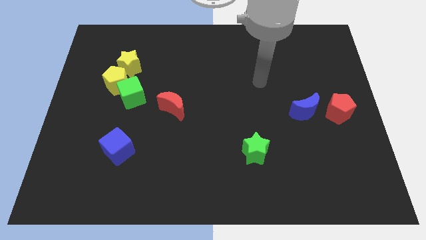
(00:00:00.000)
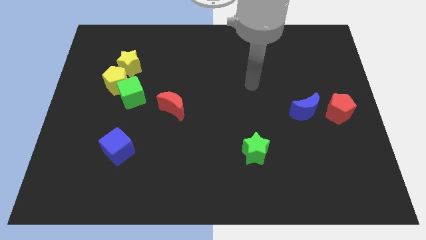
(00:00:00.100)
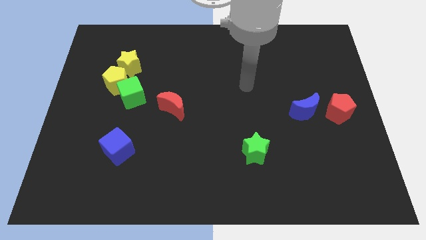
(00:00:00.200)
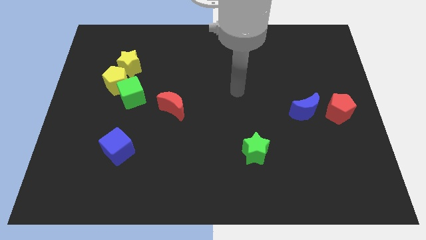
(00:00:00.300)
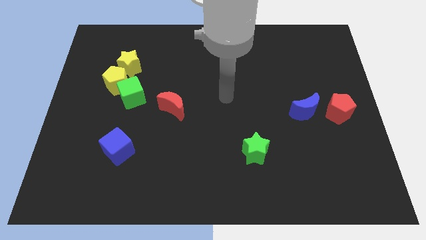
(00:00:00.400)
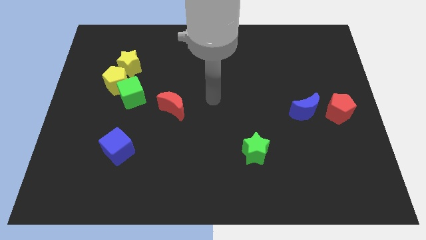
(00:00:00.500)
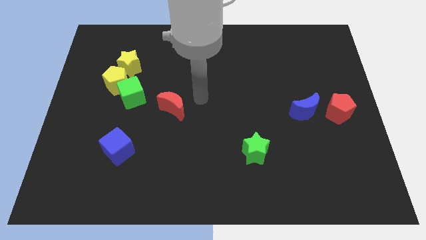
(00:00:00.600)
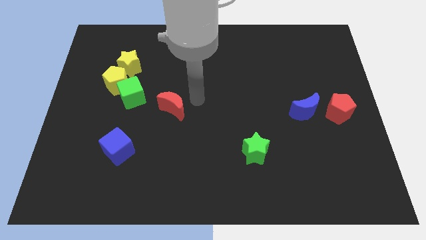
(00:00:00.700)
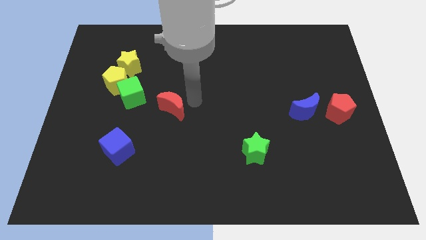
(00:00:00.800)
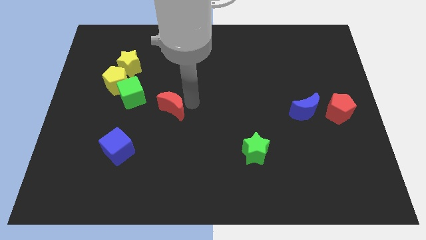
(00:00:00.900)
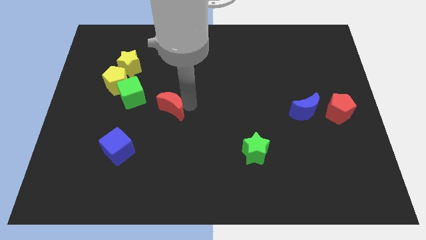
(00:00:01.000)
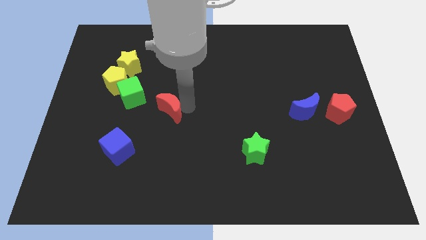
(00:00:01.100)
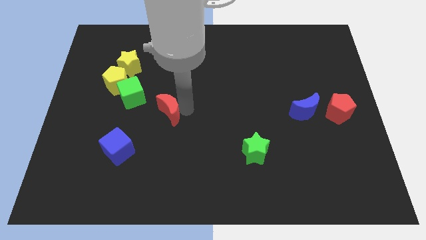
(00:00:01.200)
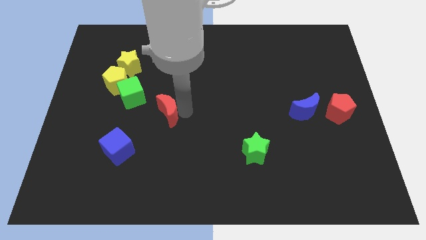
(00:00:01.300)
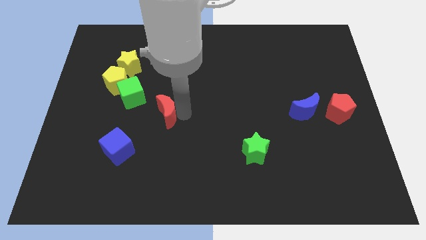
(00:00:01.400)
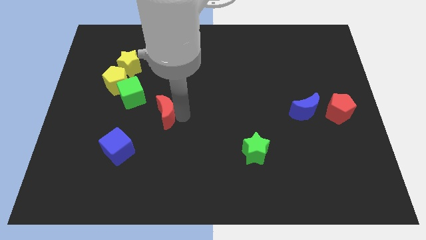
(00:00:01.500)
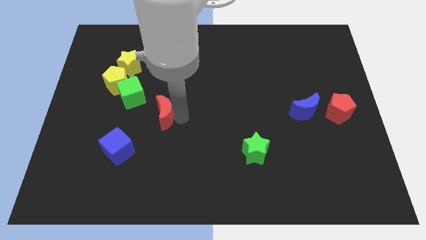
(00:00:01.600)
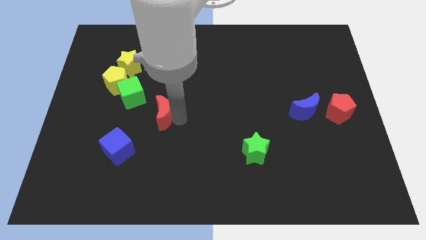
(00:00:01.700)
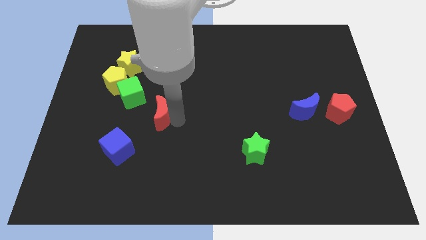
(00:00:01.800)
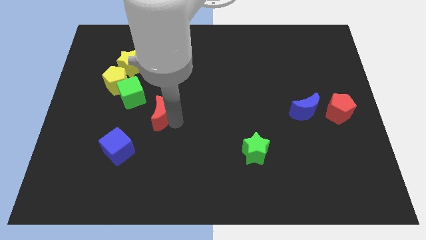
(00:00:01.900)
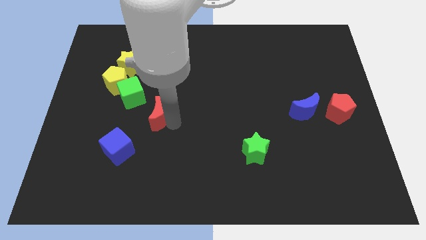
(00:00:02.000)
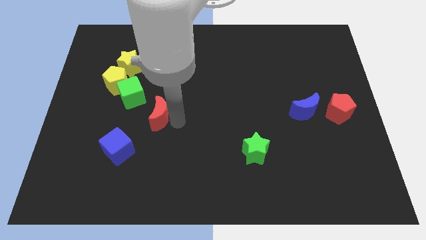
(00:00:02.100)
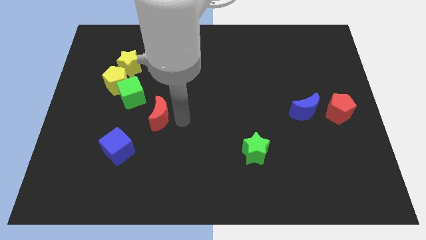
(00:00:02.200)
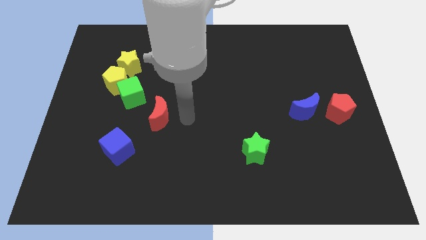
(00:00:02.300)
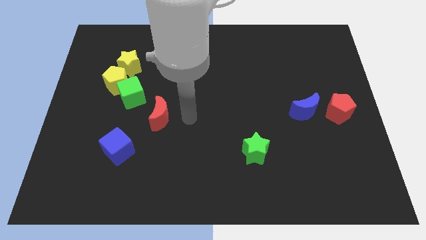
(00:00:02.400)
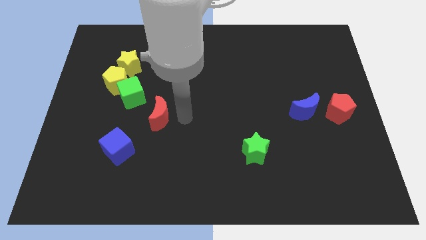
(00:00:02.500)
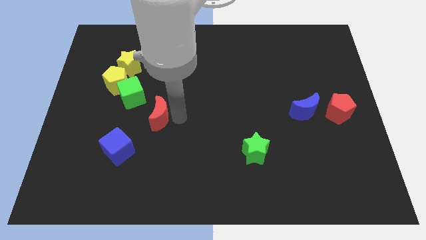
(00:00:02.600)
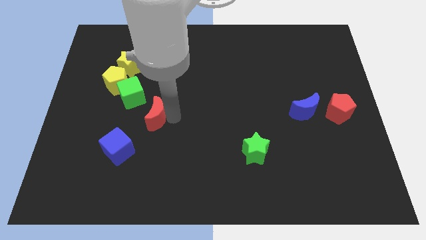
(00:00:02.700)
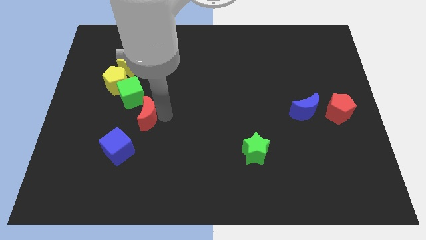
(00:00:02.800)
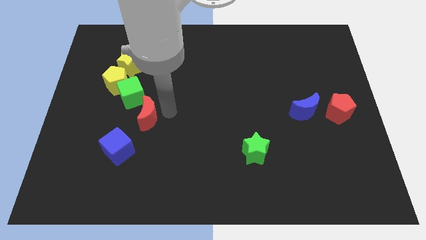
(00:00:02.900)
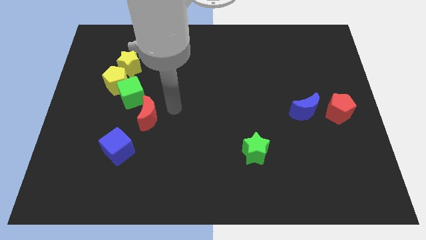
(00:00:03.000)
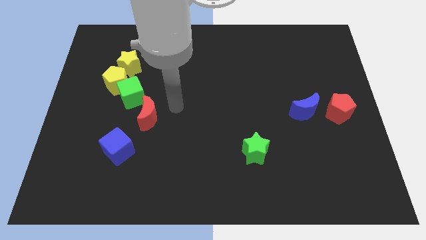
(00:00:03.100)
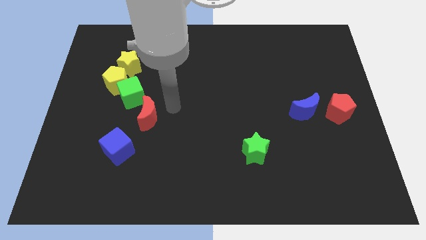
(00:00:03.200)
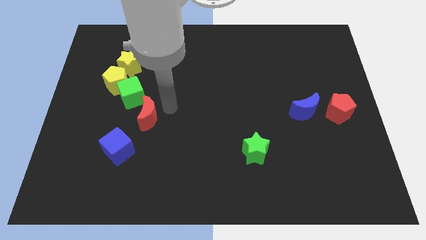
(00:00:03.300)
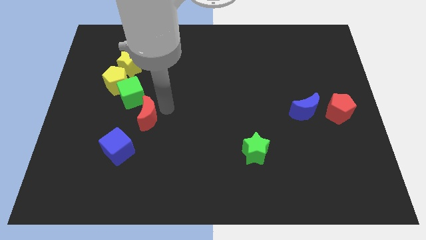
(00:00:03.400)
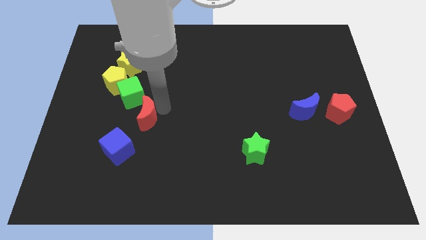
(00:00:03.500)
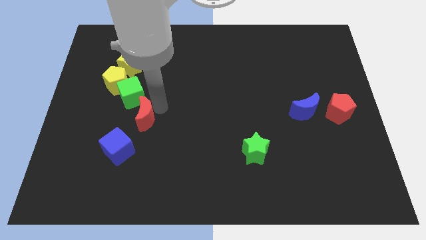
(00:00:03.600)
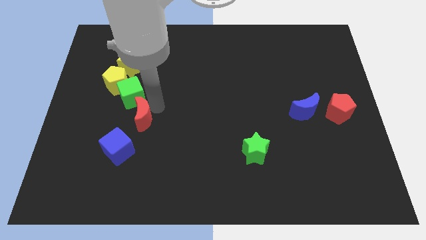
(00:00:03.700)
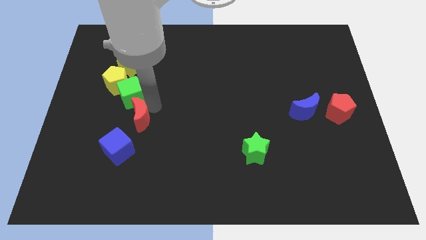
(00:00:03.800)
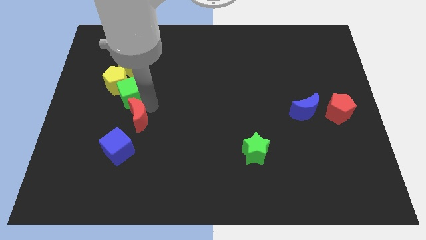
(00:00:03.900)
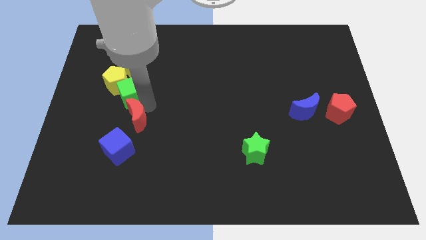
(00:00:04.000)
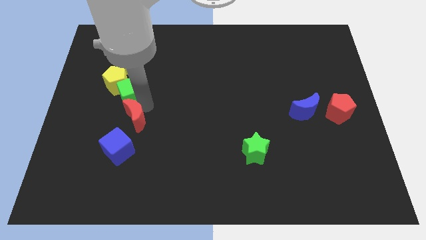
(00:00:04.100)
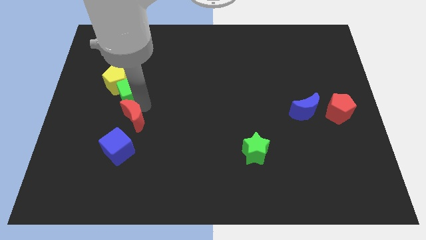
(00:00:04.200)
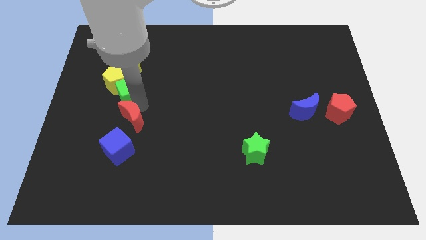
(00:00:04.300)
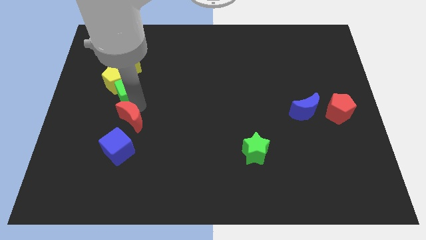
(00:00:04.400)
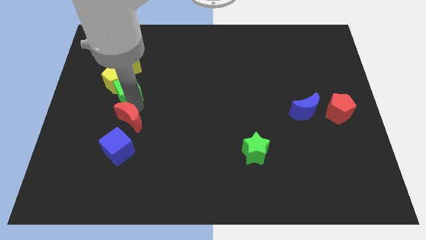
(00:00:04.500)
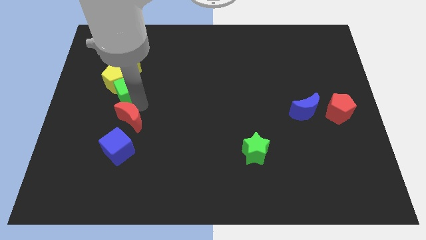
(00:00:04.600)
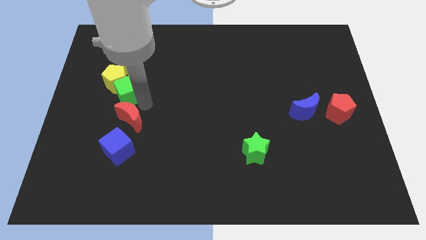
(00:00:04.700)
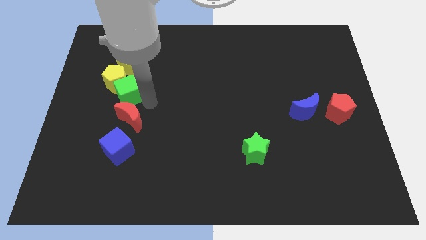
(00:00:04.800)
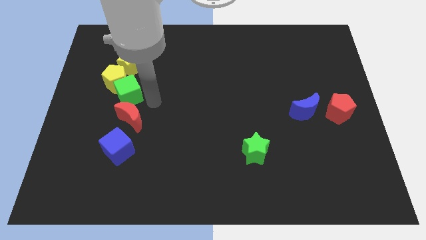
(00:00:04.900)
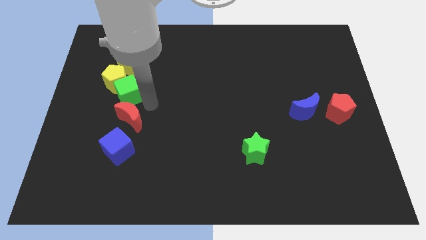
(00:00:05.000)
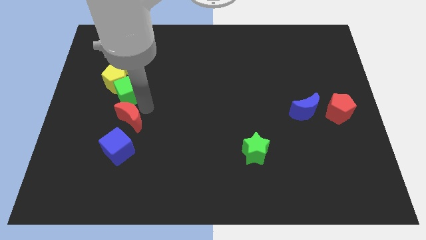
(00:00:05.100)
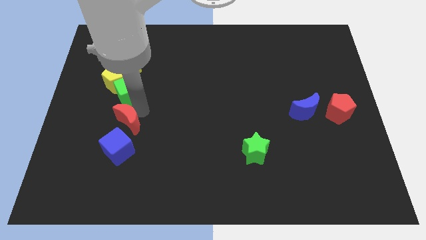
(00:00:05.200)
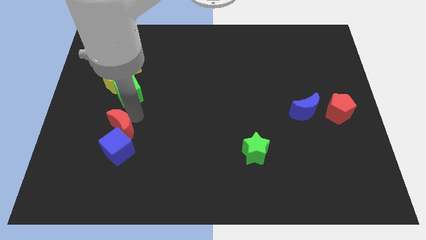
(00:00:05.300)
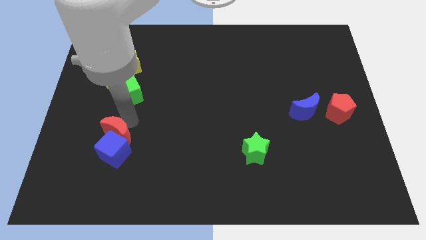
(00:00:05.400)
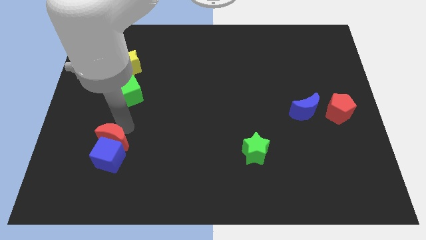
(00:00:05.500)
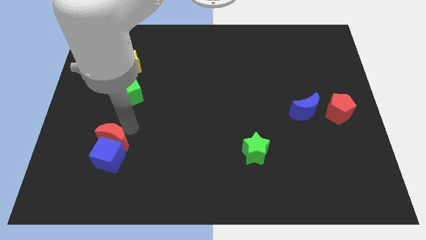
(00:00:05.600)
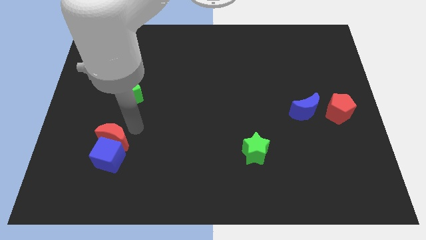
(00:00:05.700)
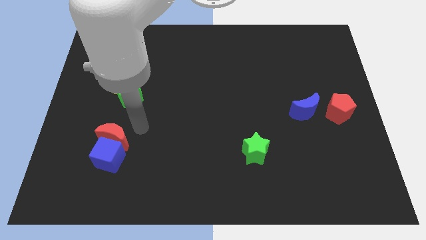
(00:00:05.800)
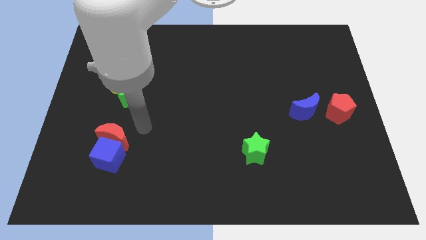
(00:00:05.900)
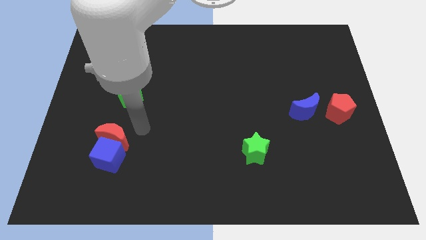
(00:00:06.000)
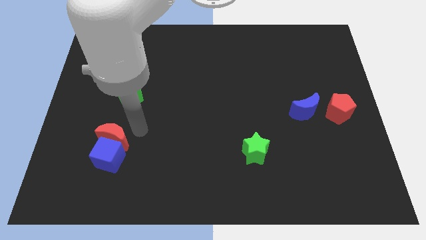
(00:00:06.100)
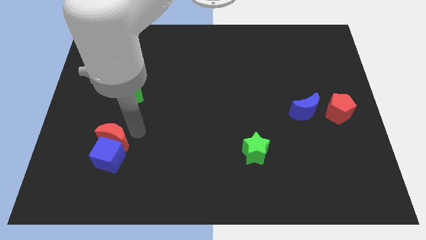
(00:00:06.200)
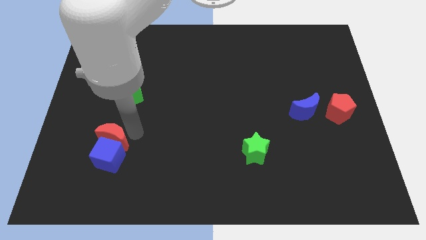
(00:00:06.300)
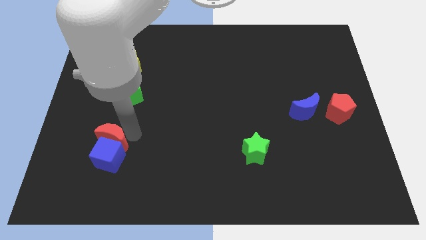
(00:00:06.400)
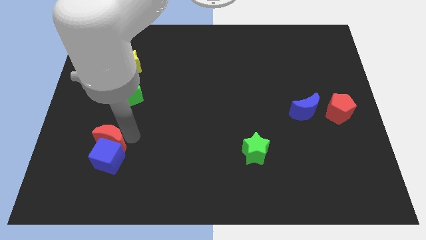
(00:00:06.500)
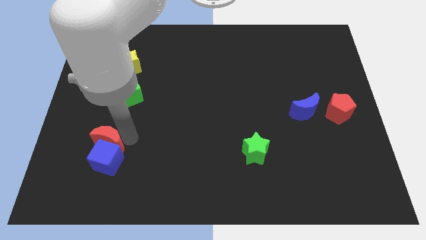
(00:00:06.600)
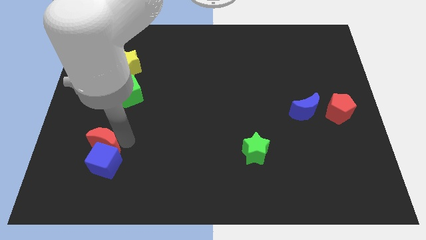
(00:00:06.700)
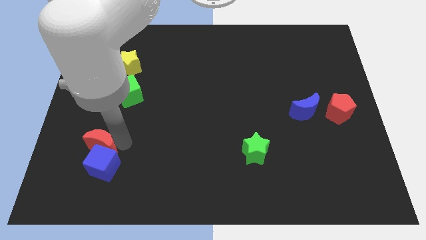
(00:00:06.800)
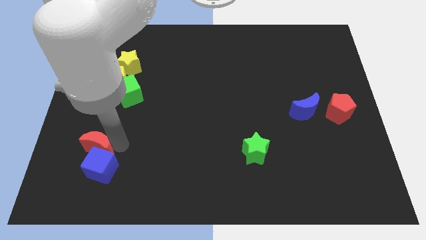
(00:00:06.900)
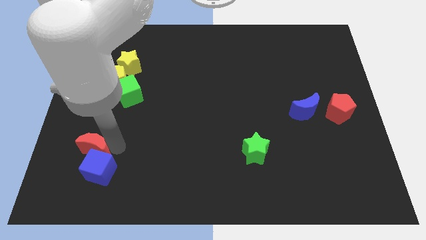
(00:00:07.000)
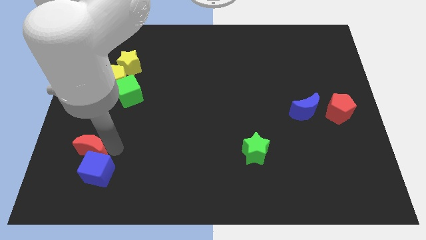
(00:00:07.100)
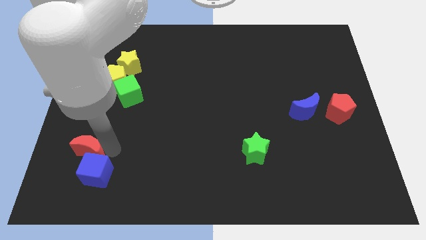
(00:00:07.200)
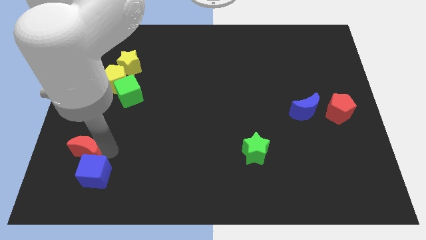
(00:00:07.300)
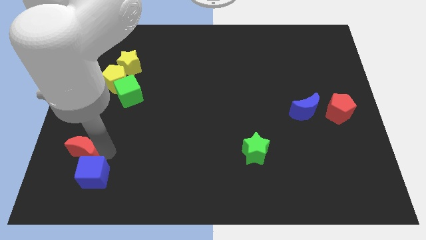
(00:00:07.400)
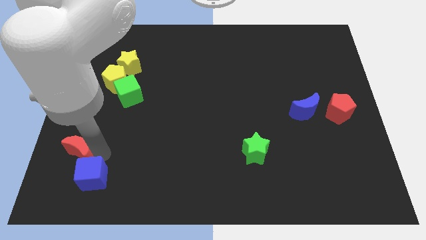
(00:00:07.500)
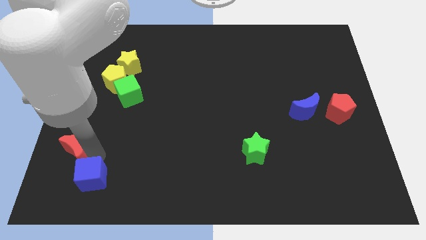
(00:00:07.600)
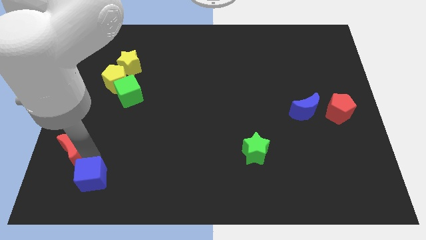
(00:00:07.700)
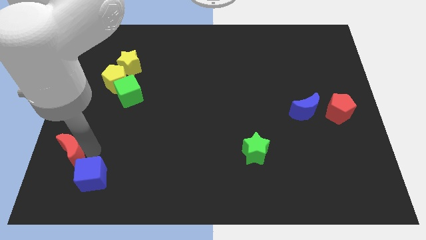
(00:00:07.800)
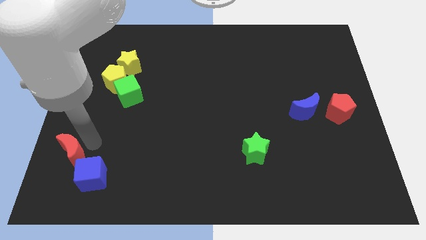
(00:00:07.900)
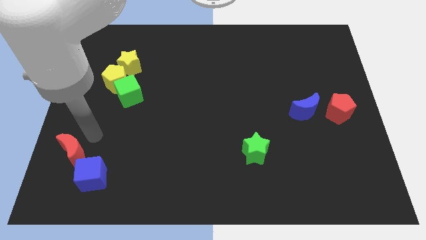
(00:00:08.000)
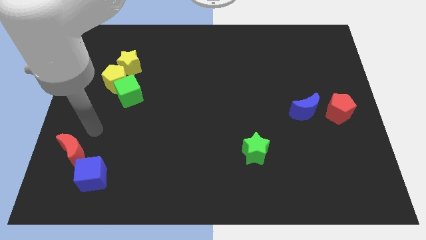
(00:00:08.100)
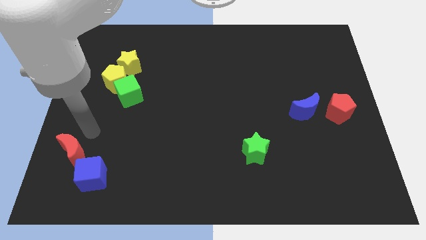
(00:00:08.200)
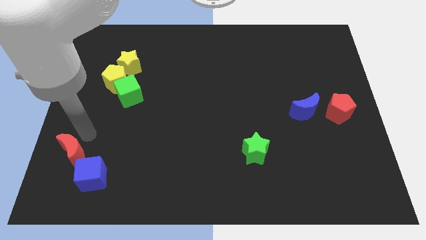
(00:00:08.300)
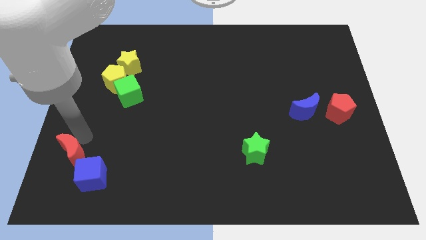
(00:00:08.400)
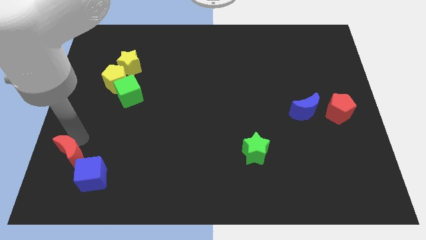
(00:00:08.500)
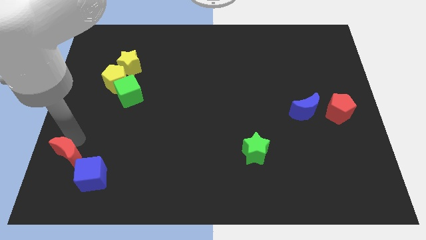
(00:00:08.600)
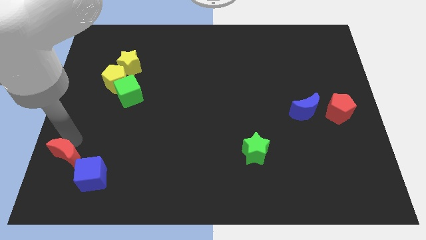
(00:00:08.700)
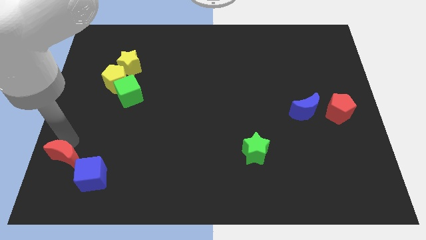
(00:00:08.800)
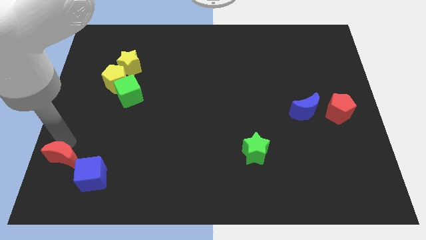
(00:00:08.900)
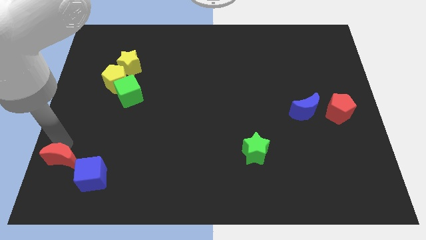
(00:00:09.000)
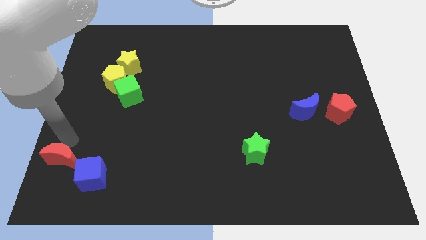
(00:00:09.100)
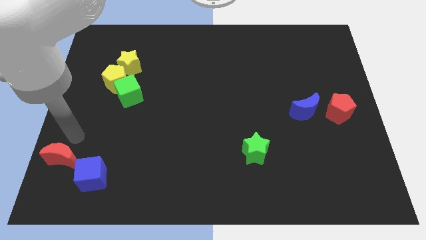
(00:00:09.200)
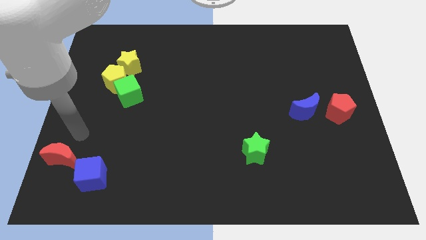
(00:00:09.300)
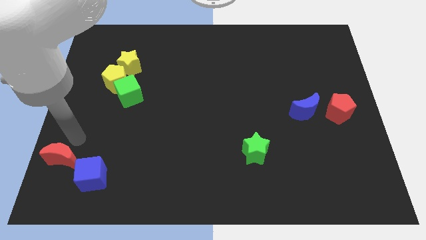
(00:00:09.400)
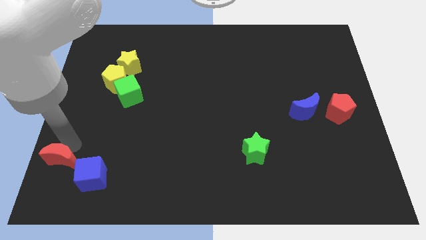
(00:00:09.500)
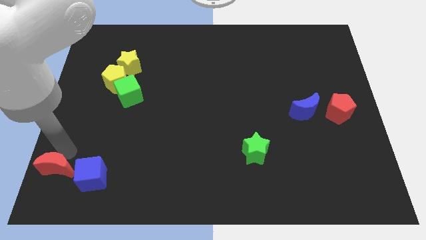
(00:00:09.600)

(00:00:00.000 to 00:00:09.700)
put the red moon to the bottom left
